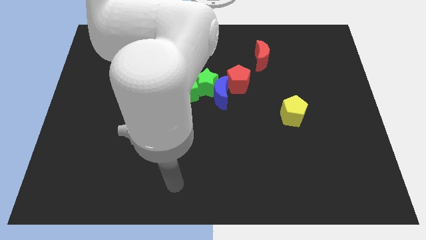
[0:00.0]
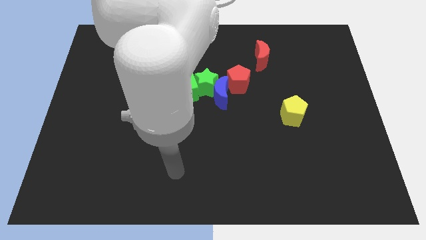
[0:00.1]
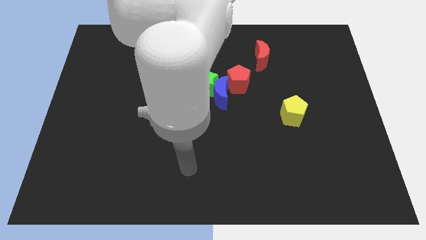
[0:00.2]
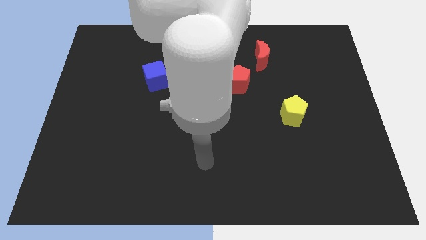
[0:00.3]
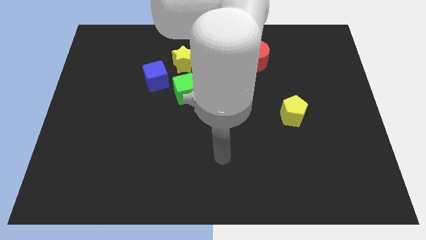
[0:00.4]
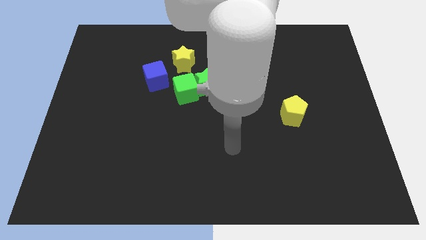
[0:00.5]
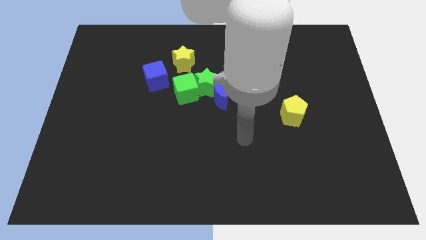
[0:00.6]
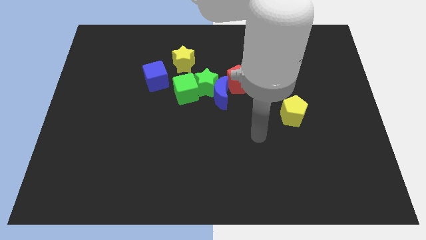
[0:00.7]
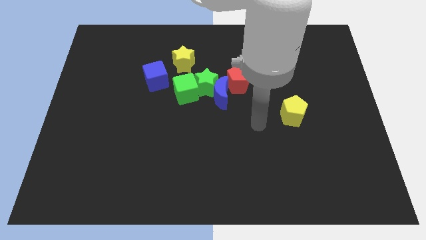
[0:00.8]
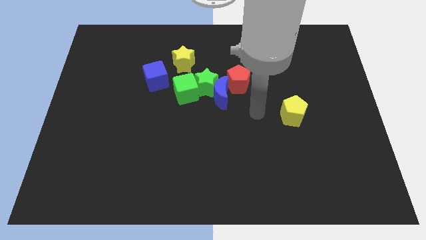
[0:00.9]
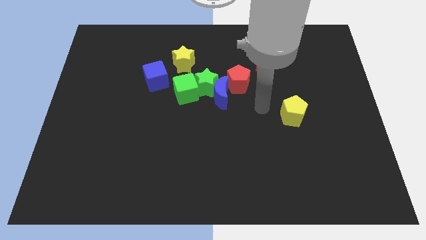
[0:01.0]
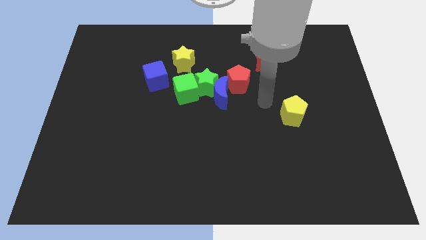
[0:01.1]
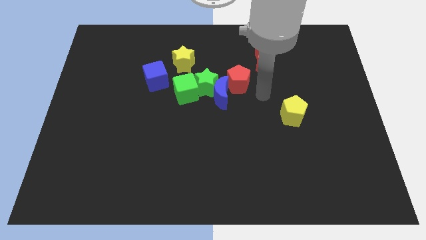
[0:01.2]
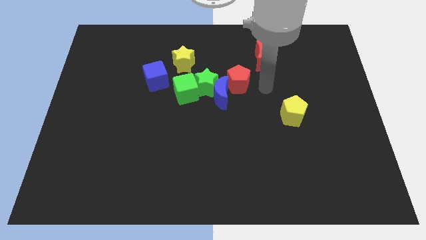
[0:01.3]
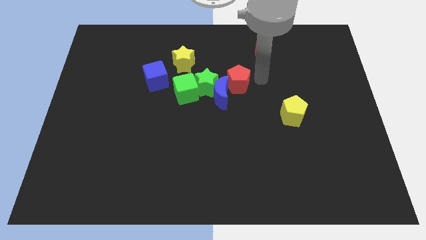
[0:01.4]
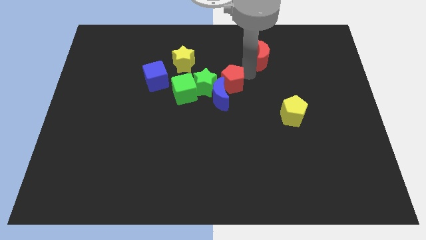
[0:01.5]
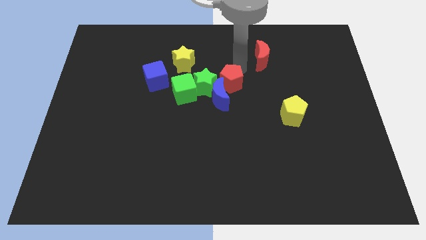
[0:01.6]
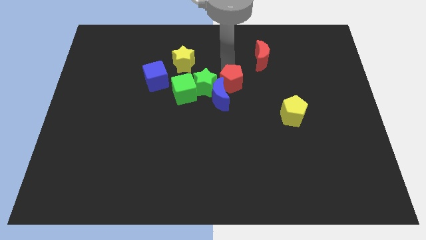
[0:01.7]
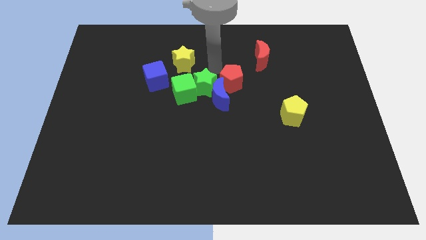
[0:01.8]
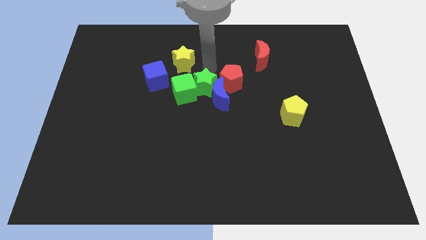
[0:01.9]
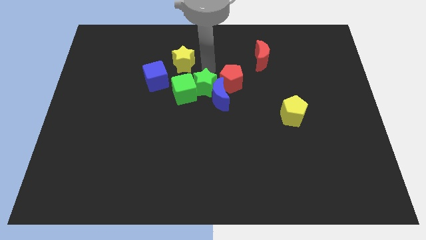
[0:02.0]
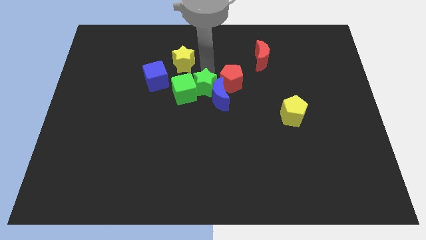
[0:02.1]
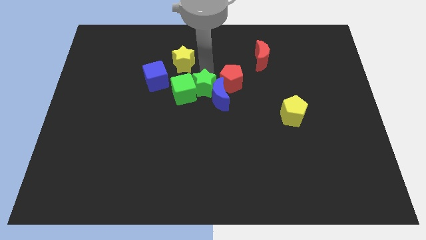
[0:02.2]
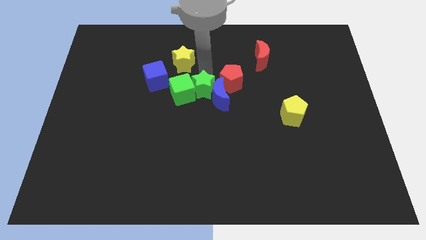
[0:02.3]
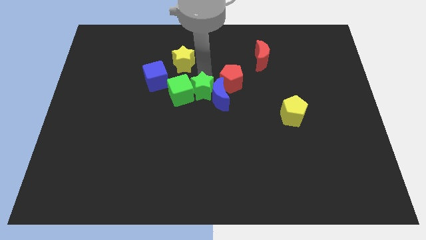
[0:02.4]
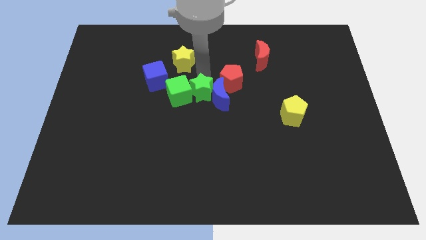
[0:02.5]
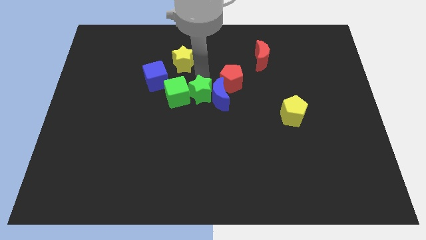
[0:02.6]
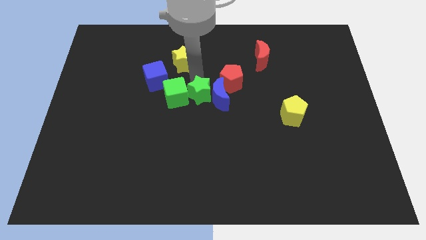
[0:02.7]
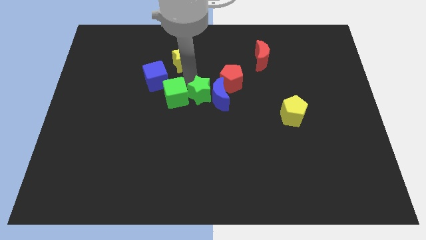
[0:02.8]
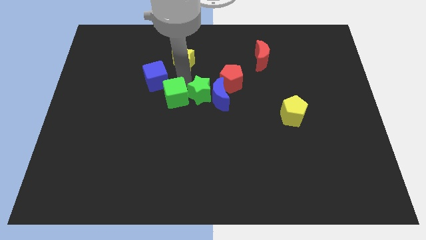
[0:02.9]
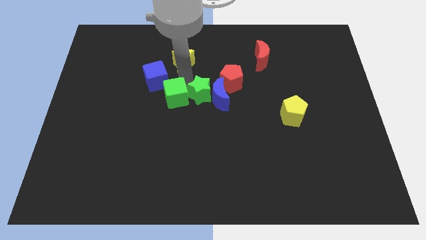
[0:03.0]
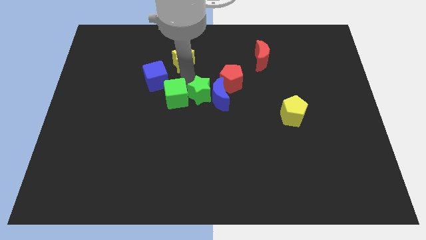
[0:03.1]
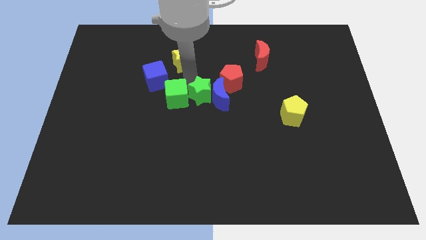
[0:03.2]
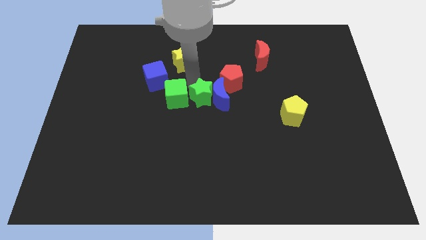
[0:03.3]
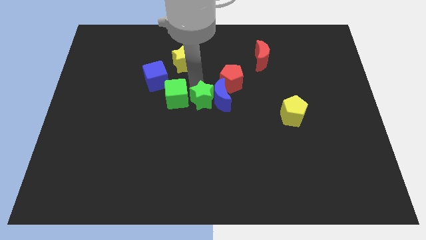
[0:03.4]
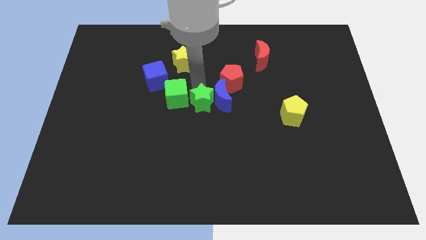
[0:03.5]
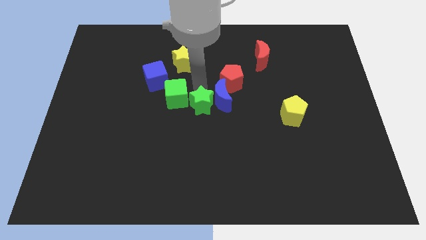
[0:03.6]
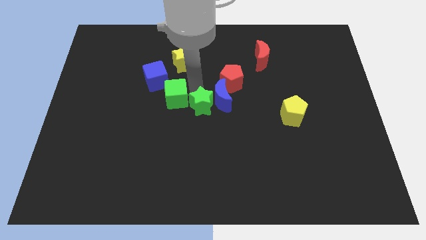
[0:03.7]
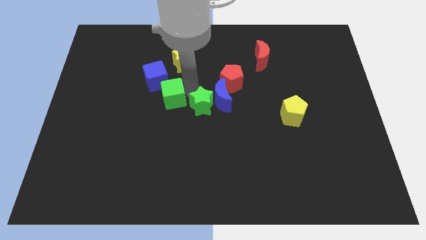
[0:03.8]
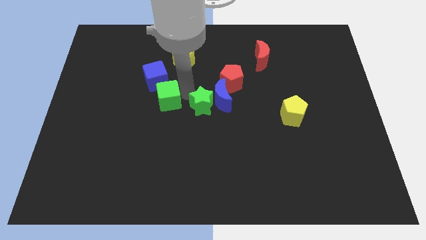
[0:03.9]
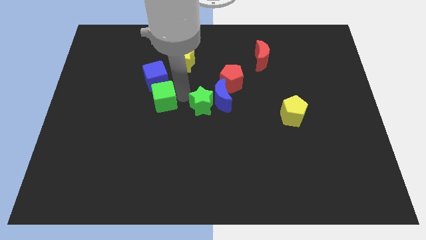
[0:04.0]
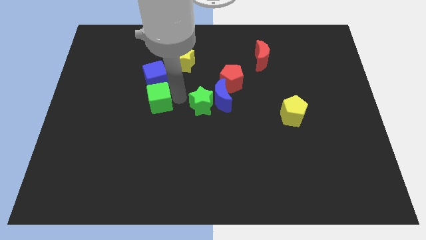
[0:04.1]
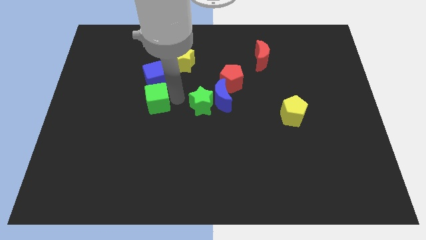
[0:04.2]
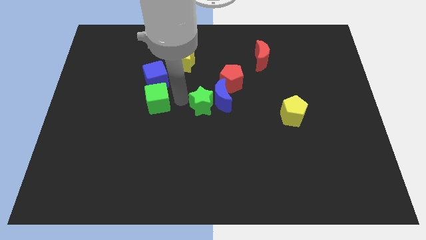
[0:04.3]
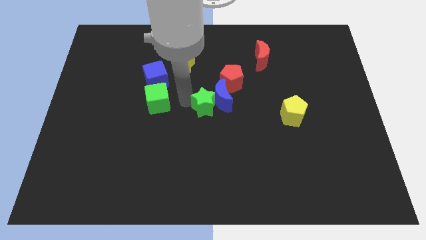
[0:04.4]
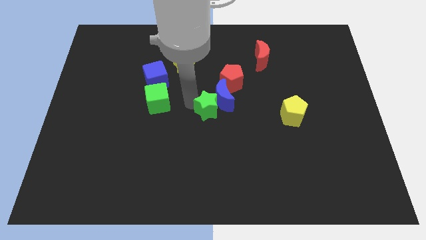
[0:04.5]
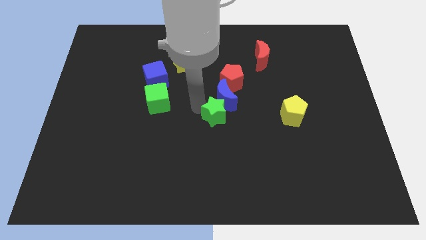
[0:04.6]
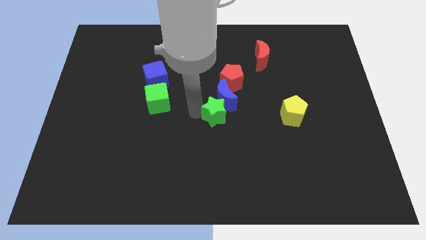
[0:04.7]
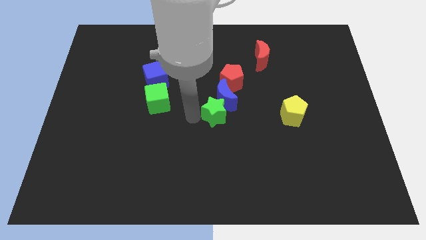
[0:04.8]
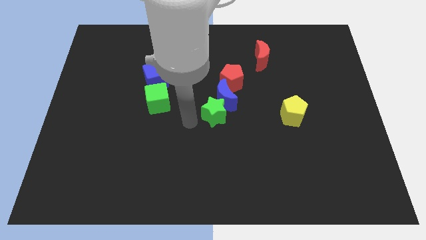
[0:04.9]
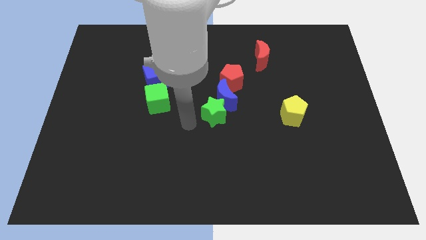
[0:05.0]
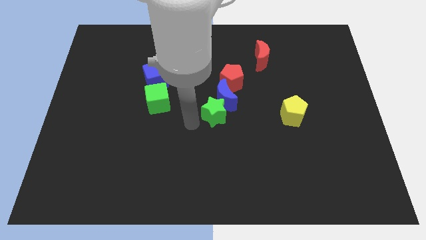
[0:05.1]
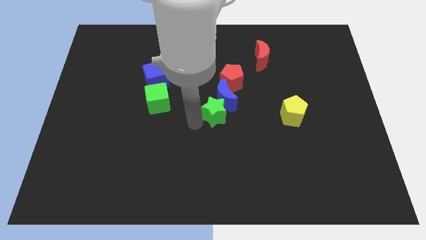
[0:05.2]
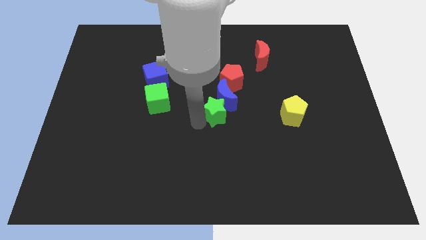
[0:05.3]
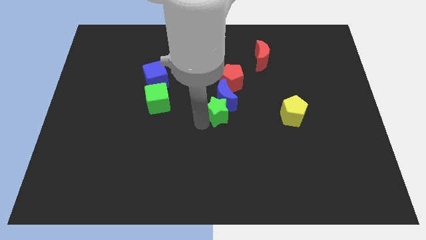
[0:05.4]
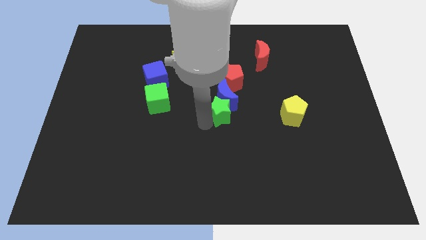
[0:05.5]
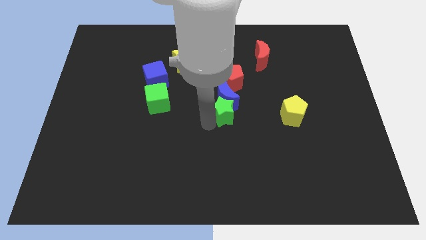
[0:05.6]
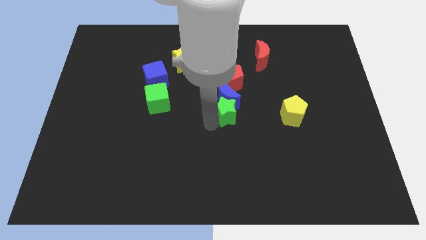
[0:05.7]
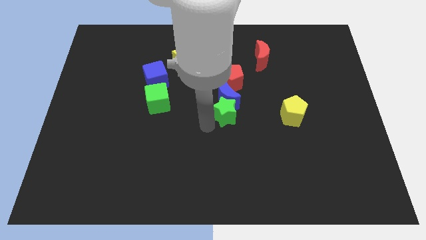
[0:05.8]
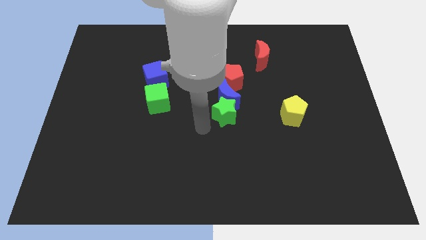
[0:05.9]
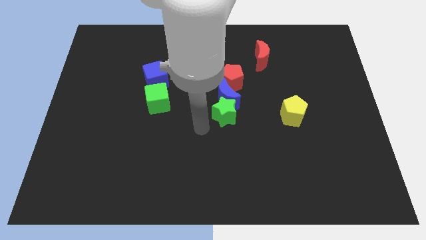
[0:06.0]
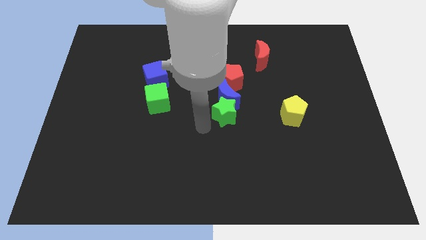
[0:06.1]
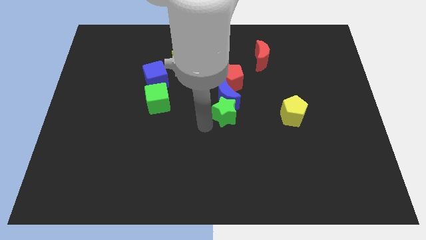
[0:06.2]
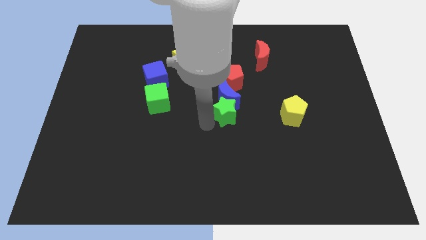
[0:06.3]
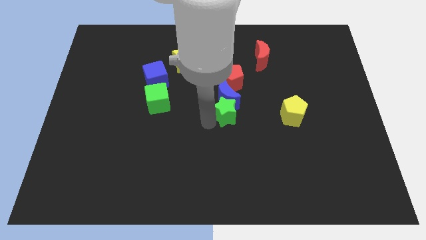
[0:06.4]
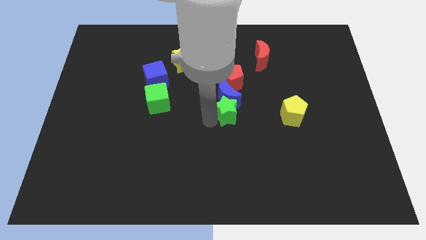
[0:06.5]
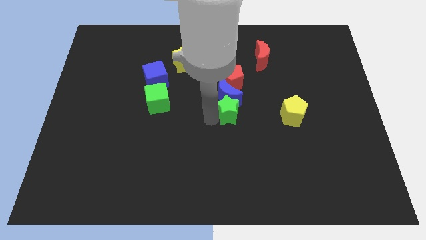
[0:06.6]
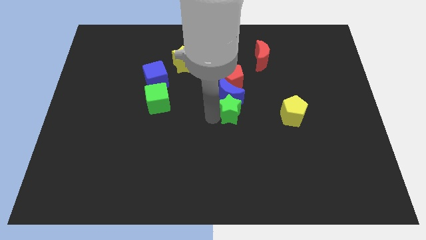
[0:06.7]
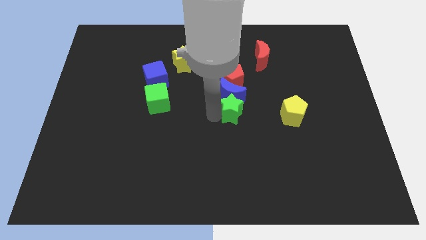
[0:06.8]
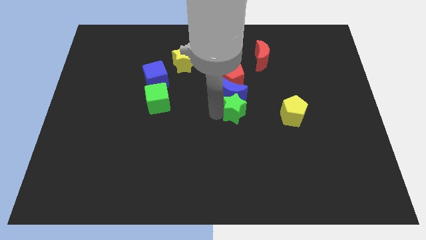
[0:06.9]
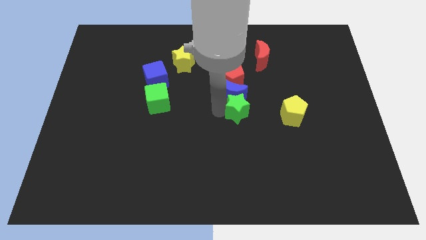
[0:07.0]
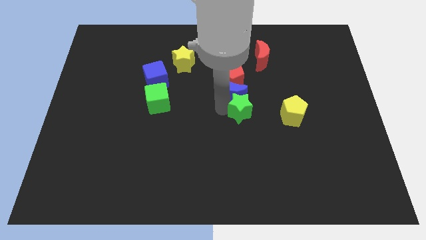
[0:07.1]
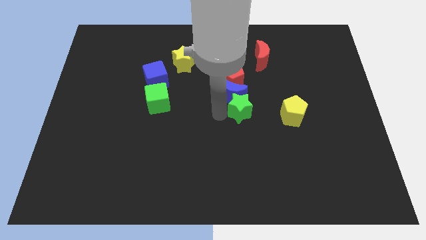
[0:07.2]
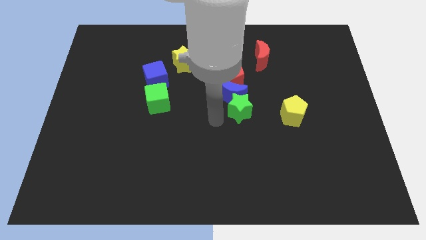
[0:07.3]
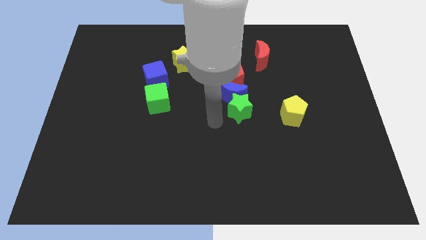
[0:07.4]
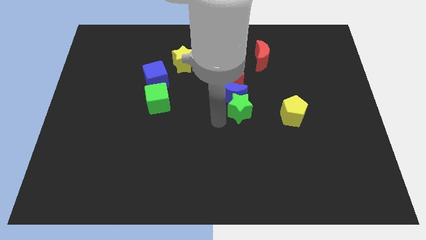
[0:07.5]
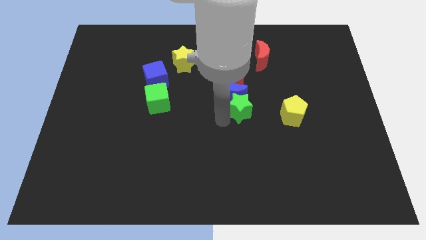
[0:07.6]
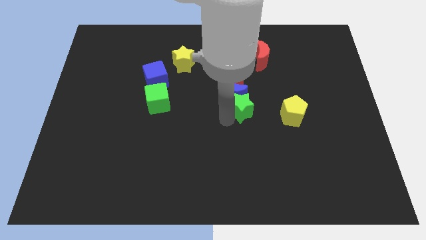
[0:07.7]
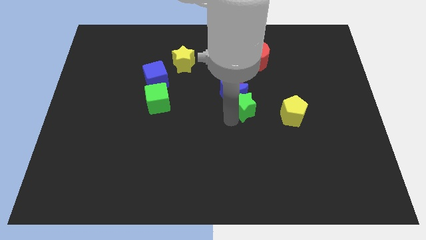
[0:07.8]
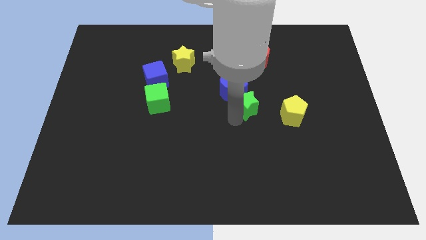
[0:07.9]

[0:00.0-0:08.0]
move the green star to the right side of the blue moon
